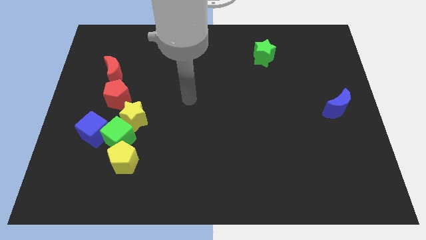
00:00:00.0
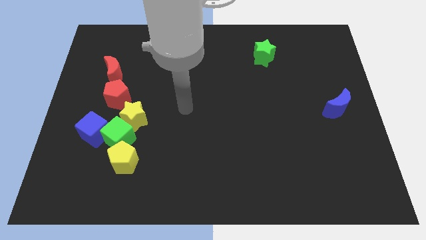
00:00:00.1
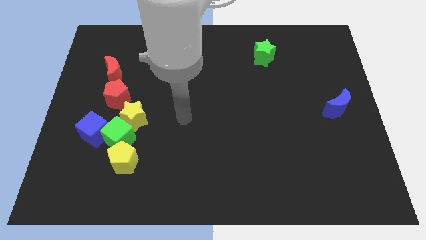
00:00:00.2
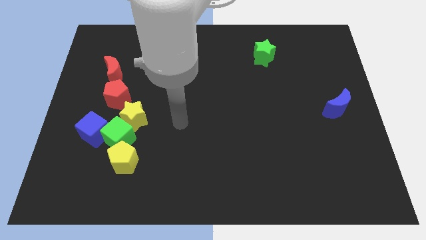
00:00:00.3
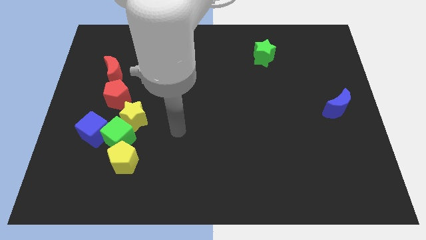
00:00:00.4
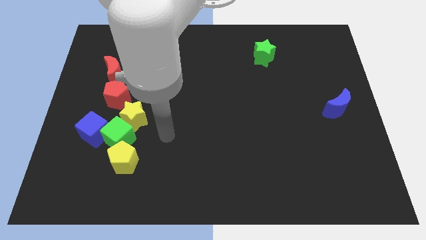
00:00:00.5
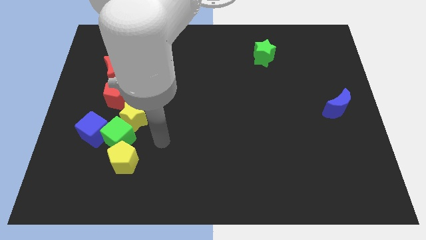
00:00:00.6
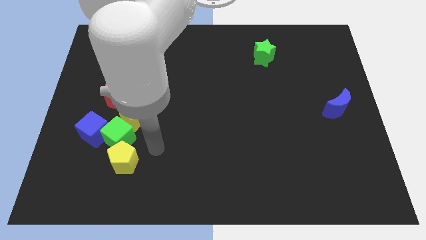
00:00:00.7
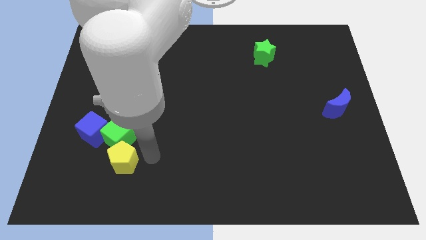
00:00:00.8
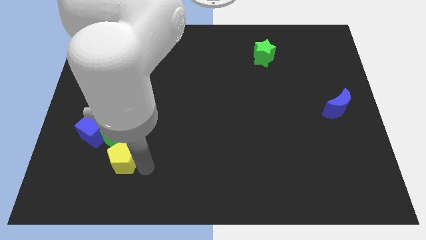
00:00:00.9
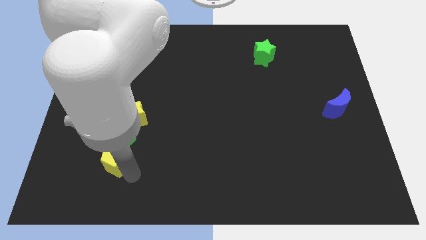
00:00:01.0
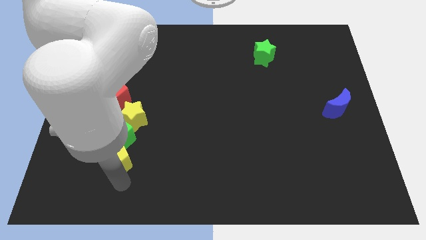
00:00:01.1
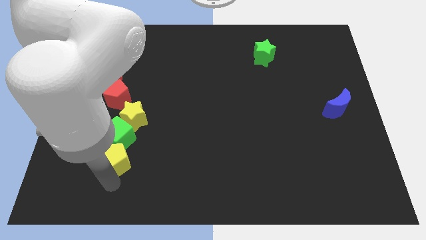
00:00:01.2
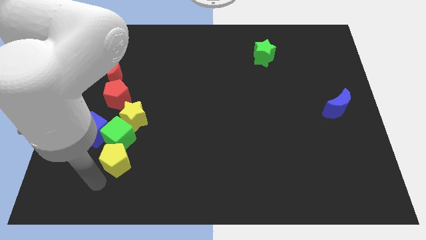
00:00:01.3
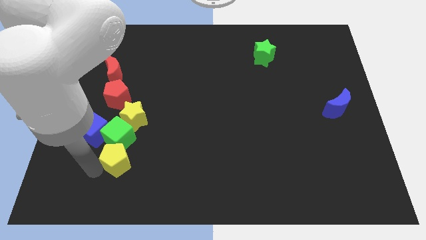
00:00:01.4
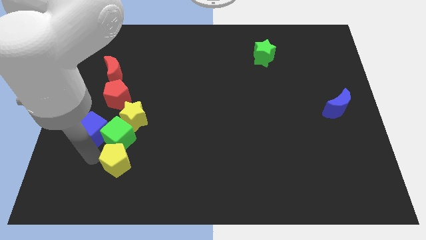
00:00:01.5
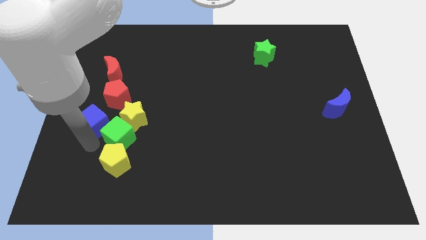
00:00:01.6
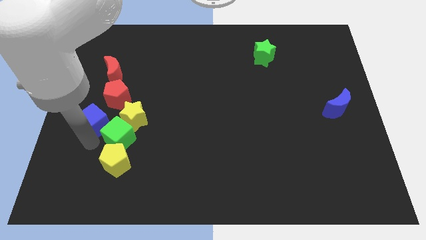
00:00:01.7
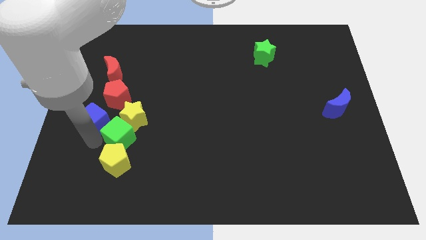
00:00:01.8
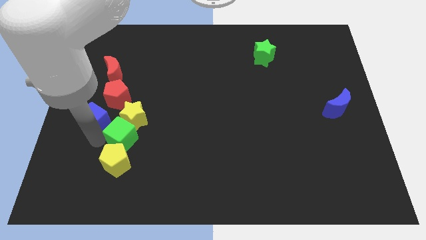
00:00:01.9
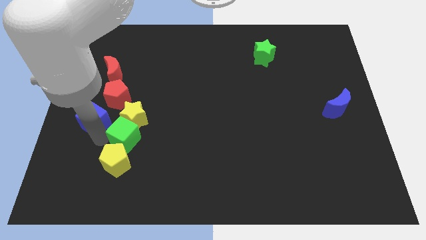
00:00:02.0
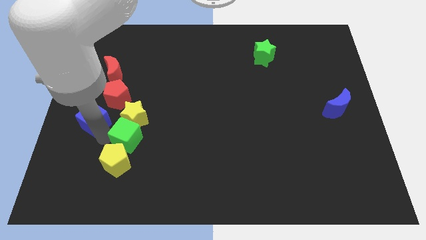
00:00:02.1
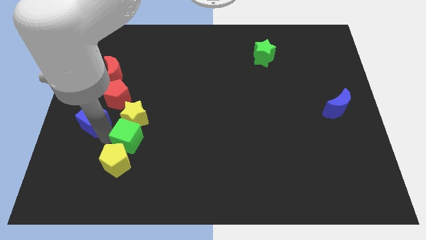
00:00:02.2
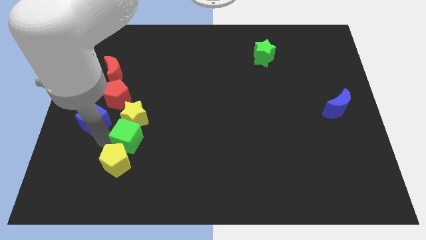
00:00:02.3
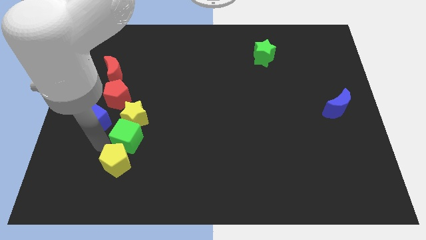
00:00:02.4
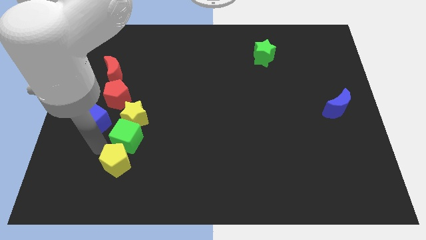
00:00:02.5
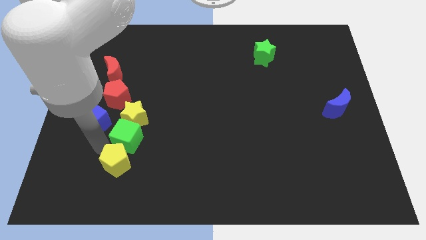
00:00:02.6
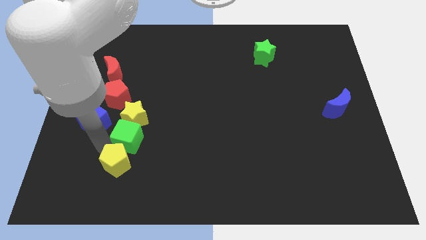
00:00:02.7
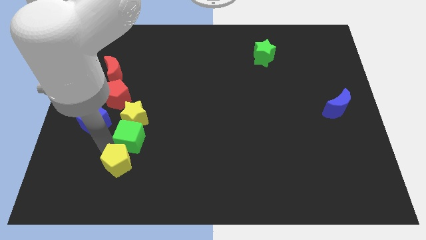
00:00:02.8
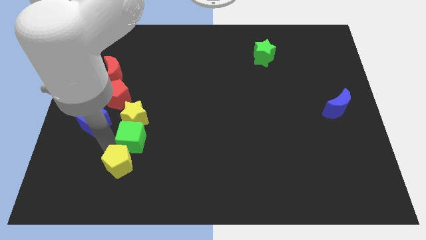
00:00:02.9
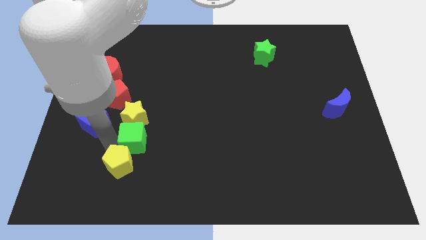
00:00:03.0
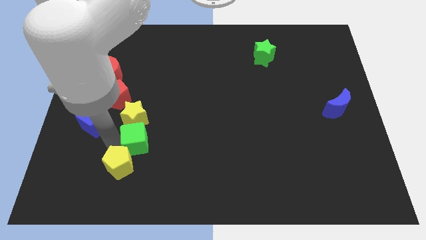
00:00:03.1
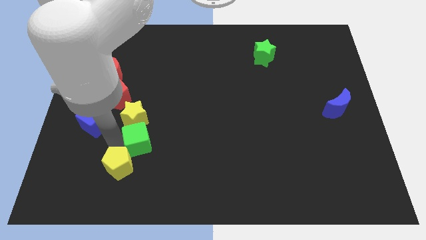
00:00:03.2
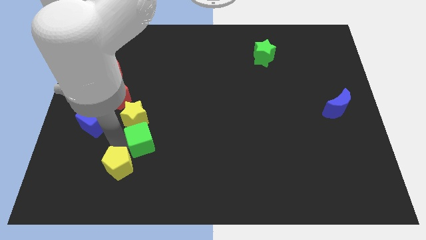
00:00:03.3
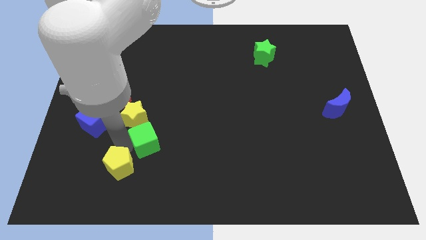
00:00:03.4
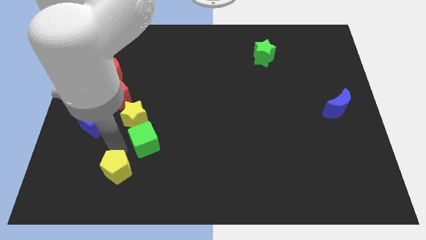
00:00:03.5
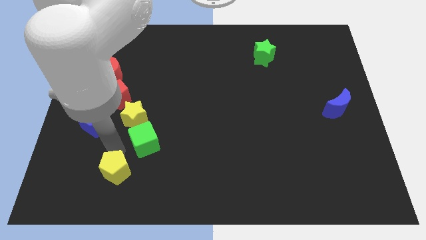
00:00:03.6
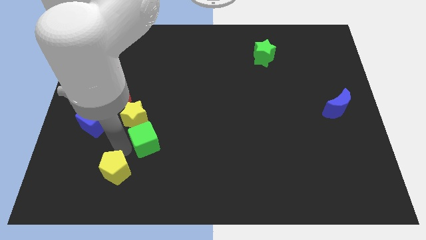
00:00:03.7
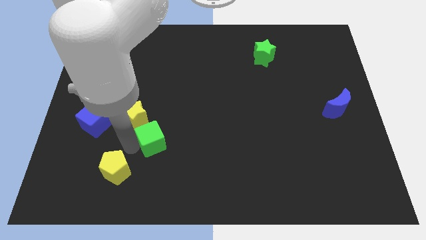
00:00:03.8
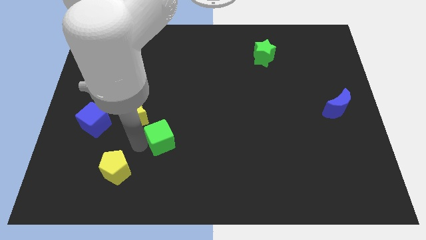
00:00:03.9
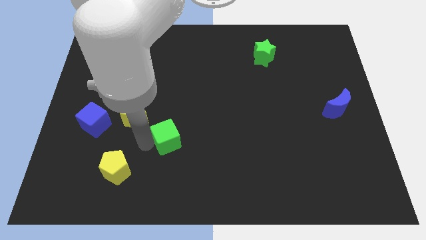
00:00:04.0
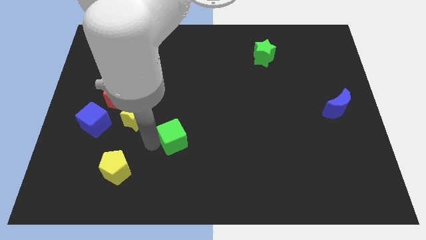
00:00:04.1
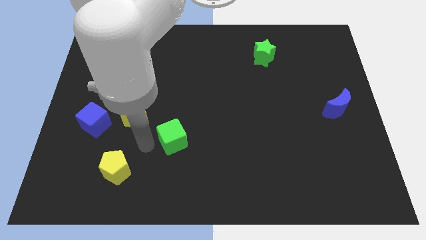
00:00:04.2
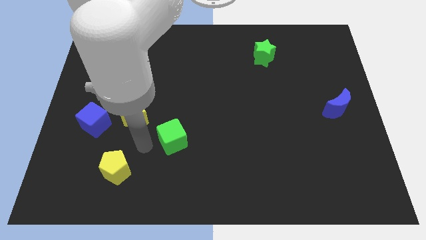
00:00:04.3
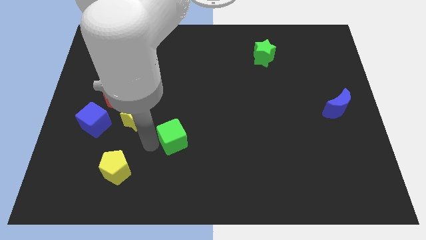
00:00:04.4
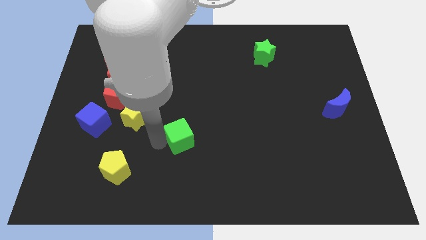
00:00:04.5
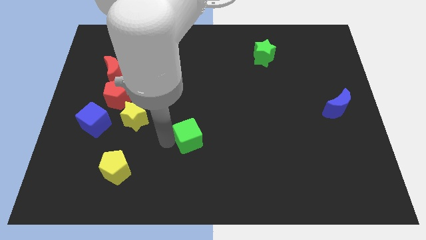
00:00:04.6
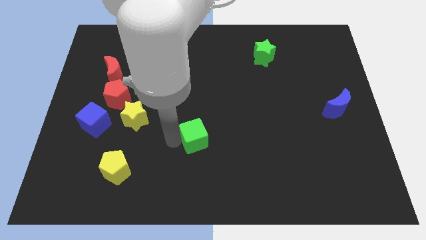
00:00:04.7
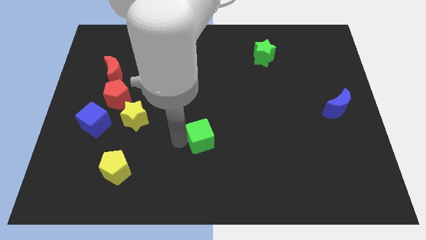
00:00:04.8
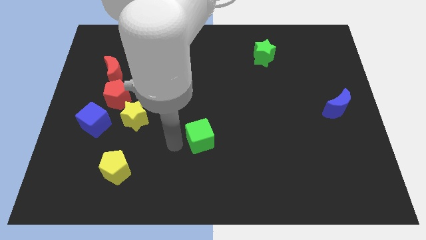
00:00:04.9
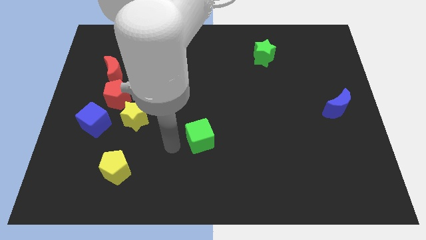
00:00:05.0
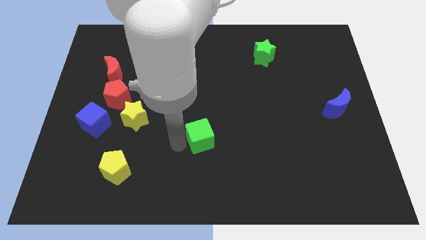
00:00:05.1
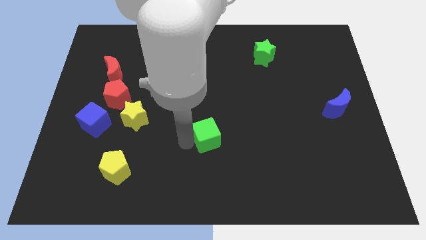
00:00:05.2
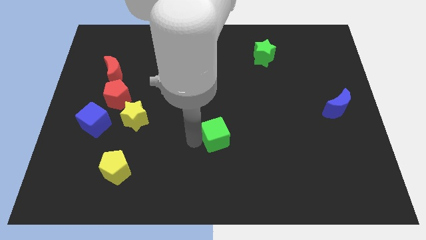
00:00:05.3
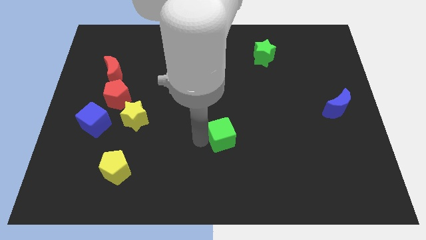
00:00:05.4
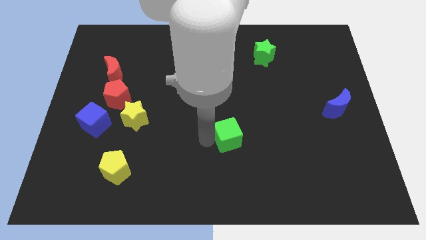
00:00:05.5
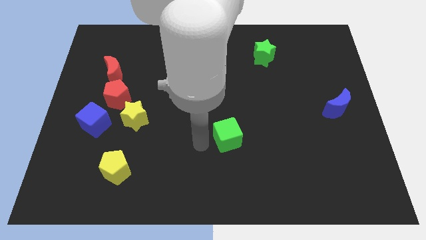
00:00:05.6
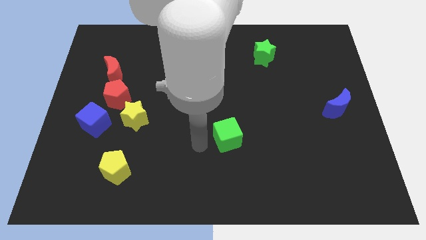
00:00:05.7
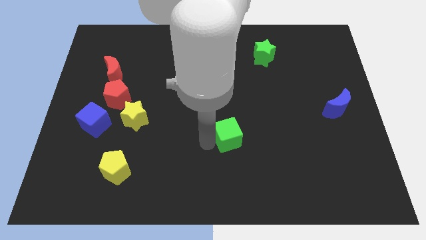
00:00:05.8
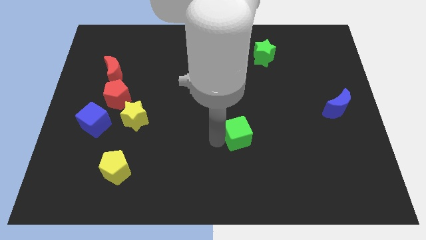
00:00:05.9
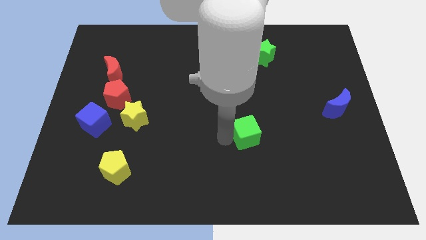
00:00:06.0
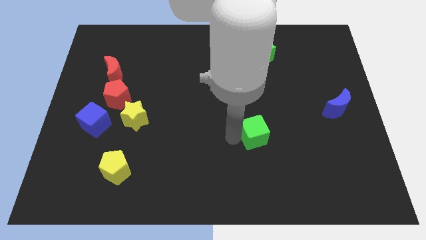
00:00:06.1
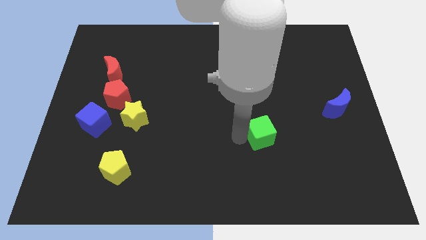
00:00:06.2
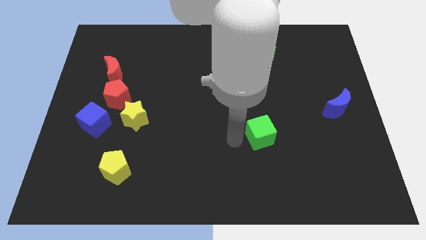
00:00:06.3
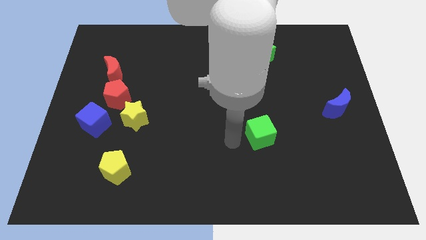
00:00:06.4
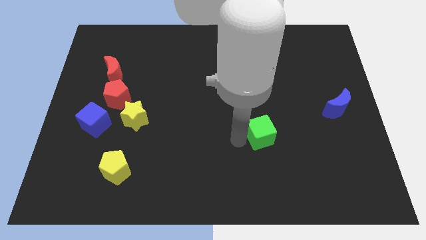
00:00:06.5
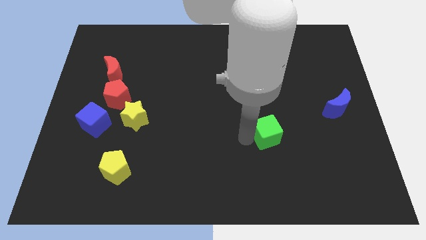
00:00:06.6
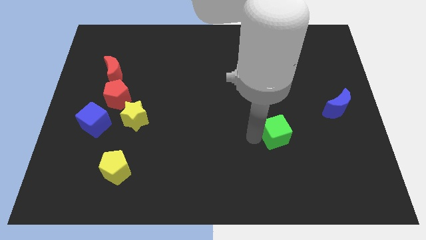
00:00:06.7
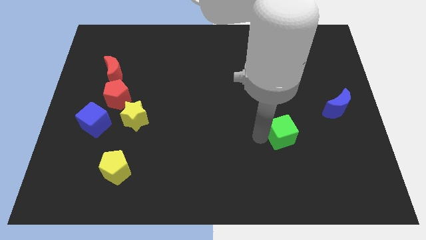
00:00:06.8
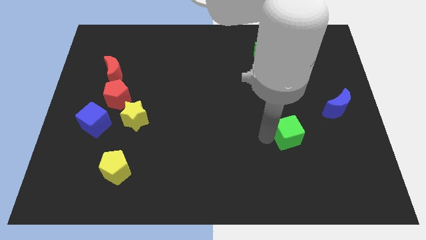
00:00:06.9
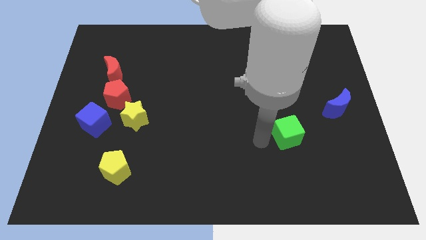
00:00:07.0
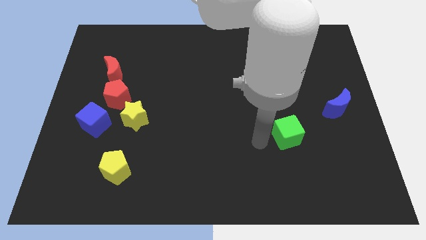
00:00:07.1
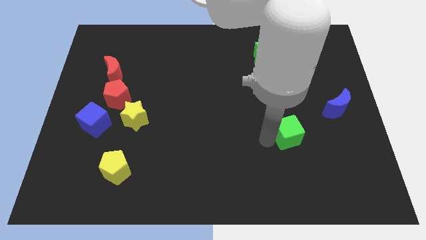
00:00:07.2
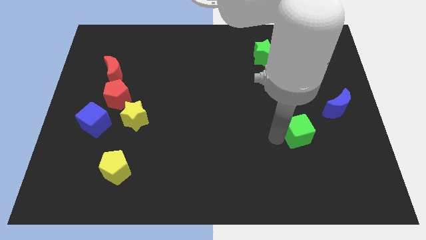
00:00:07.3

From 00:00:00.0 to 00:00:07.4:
put the green cube to the bottom left side of the blue moon
